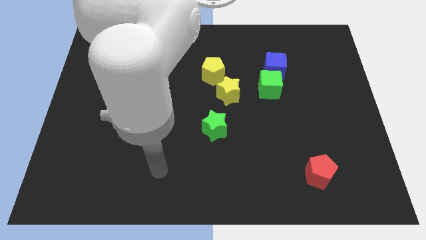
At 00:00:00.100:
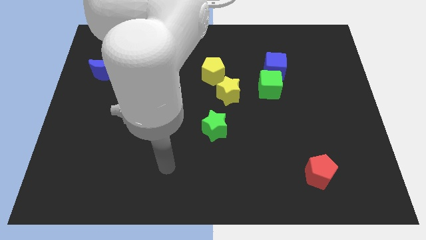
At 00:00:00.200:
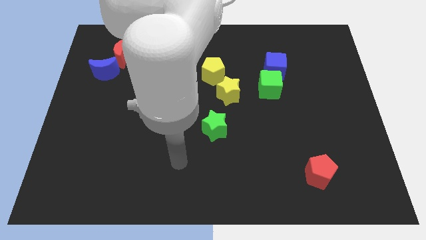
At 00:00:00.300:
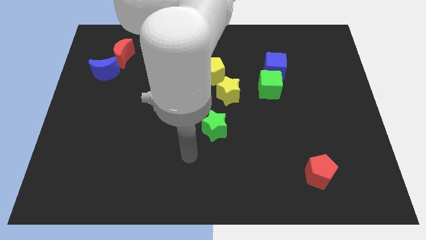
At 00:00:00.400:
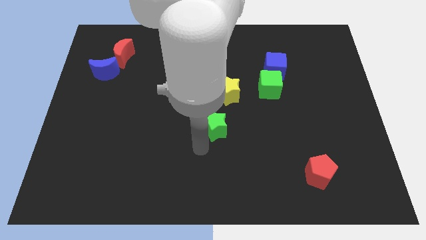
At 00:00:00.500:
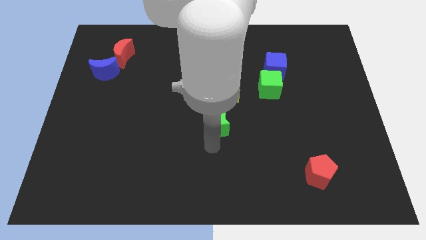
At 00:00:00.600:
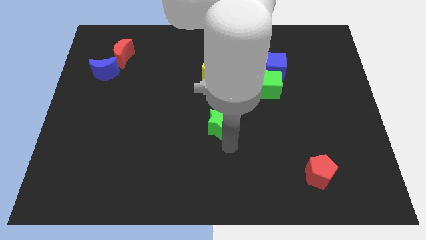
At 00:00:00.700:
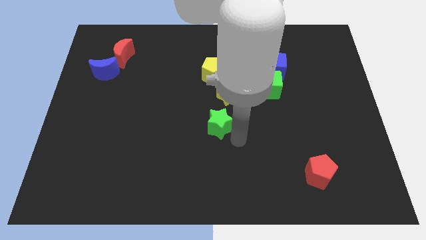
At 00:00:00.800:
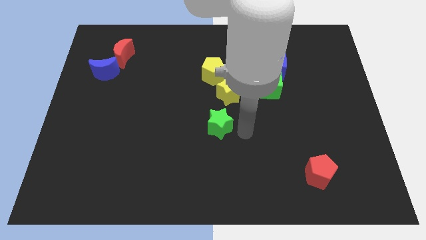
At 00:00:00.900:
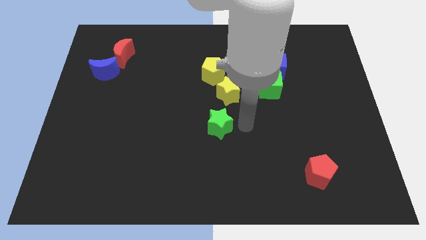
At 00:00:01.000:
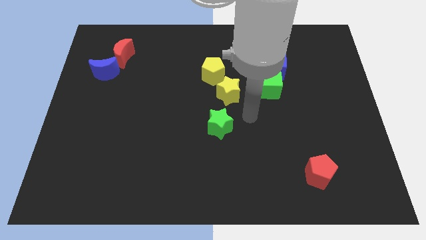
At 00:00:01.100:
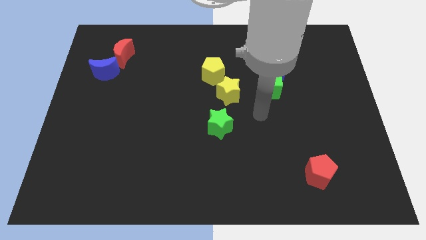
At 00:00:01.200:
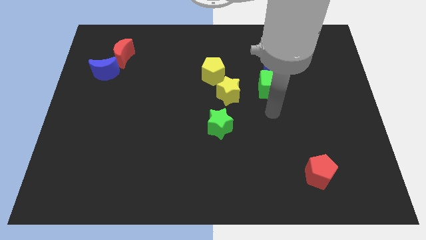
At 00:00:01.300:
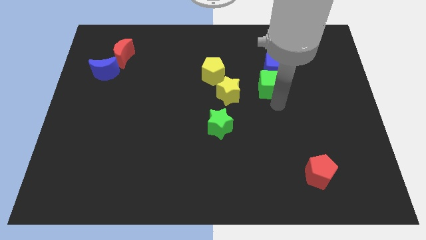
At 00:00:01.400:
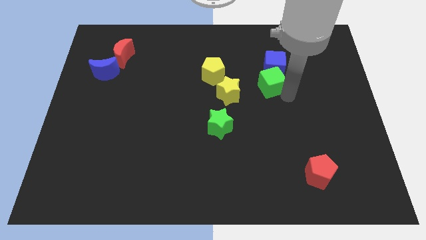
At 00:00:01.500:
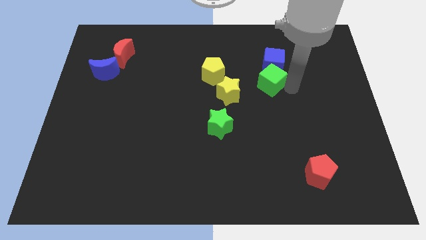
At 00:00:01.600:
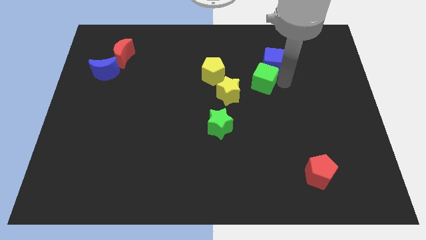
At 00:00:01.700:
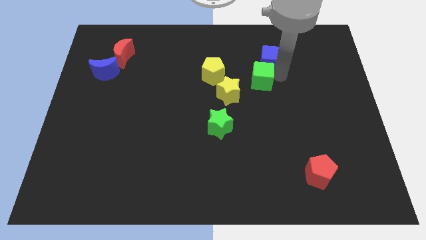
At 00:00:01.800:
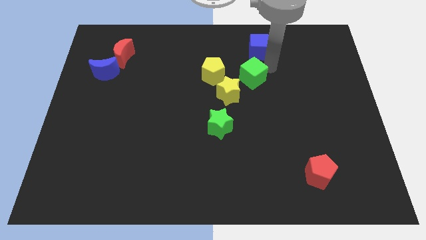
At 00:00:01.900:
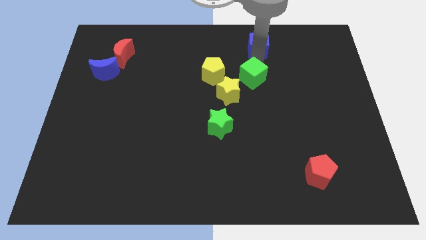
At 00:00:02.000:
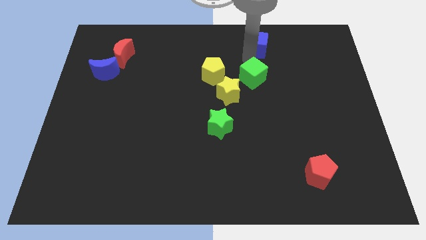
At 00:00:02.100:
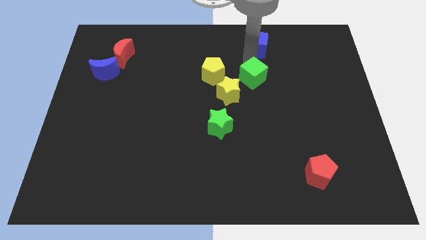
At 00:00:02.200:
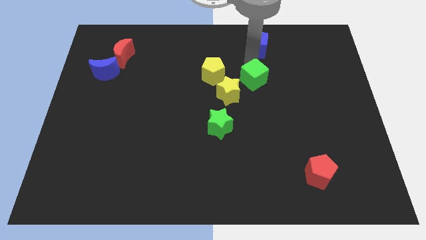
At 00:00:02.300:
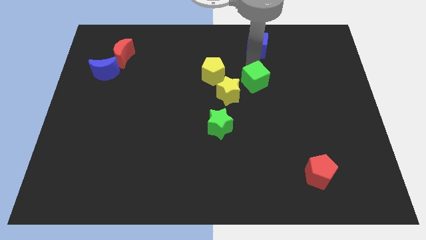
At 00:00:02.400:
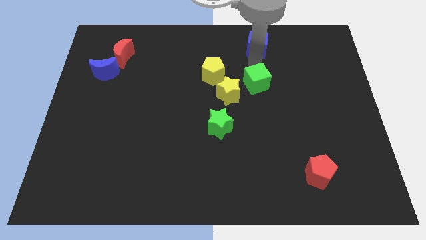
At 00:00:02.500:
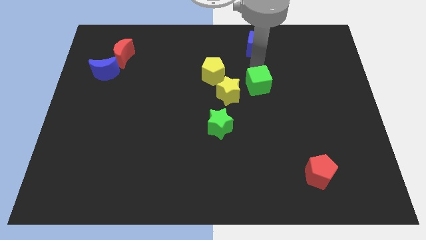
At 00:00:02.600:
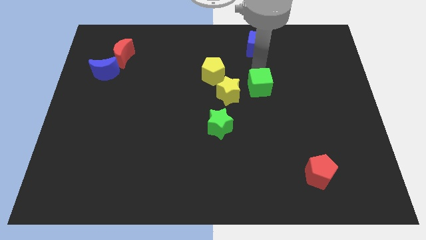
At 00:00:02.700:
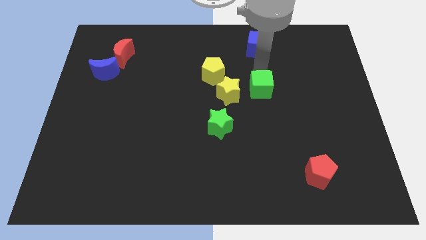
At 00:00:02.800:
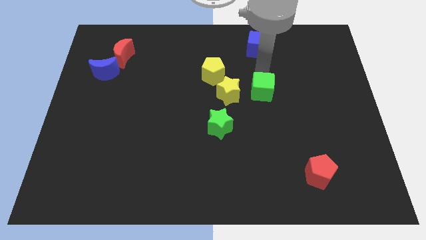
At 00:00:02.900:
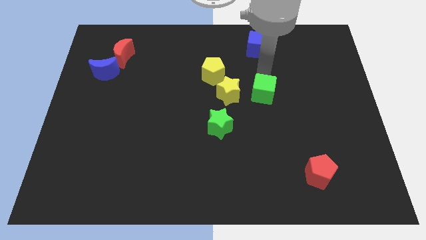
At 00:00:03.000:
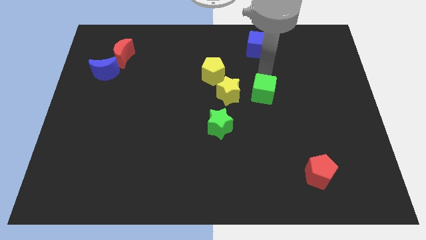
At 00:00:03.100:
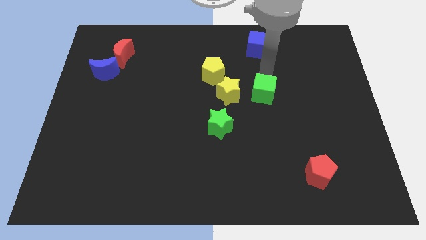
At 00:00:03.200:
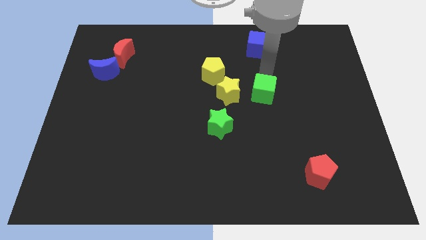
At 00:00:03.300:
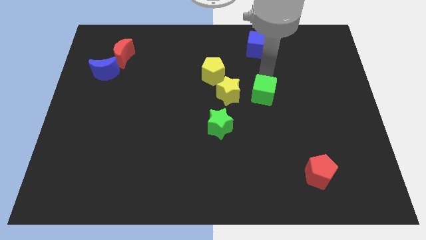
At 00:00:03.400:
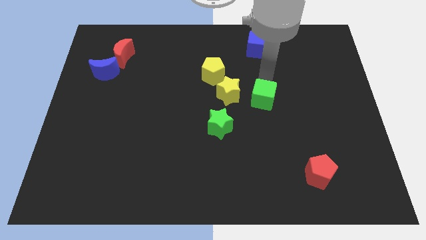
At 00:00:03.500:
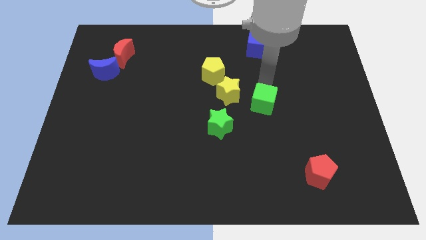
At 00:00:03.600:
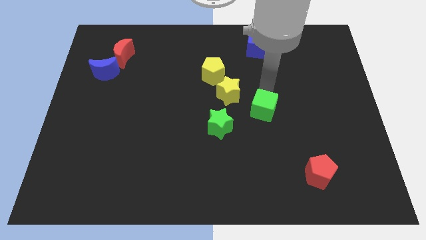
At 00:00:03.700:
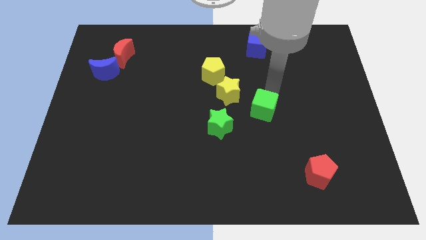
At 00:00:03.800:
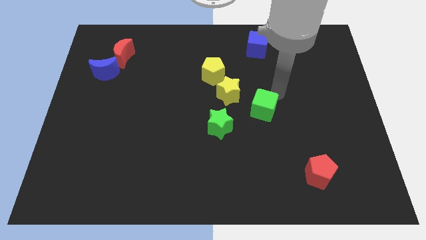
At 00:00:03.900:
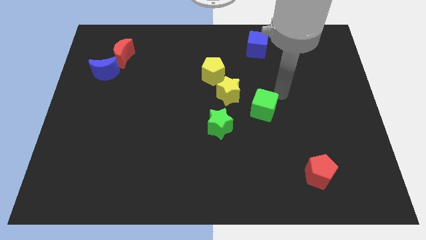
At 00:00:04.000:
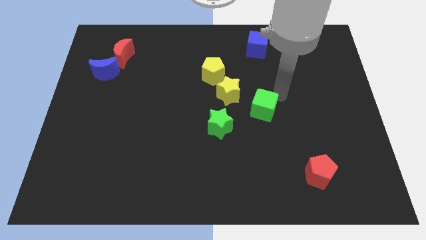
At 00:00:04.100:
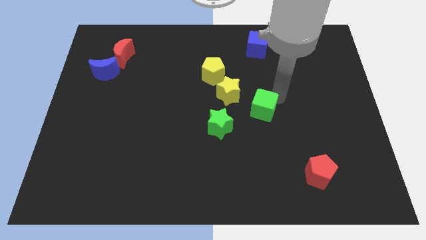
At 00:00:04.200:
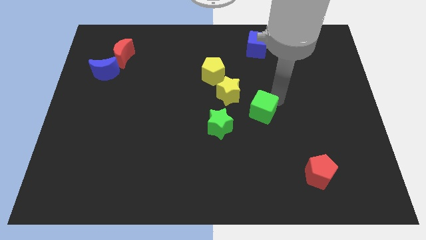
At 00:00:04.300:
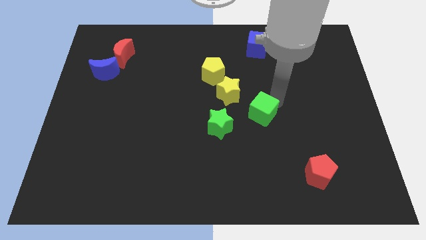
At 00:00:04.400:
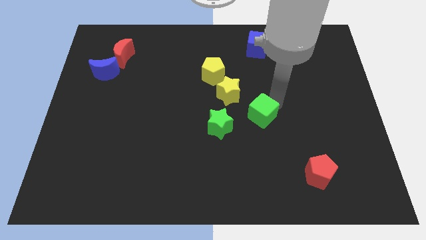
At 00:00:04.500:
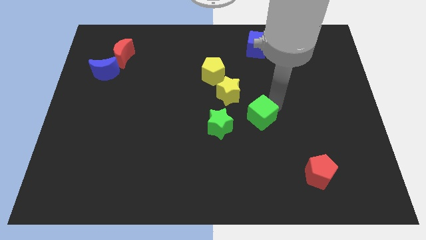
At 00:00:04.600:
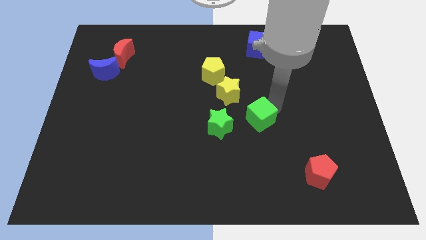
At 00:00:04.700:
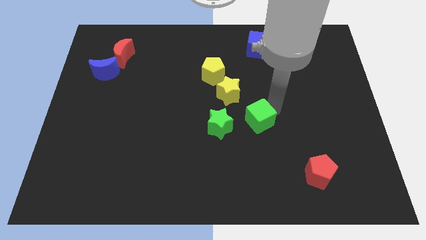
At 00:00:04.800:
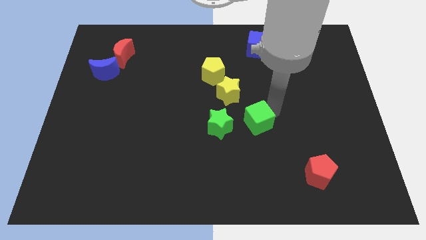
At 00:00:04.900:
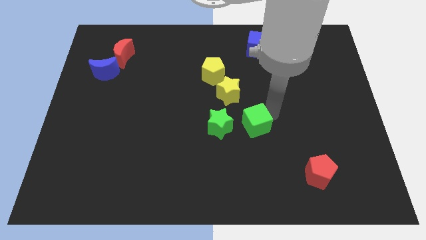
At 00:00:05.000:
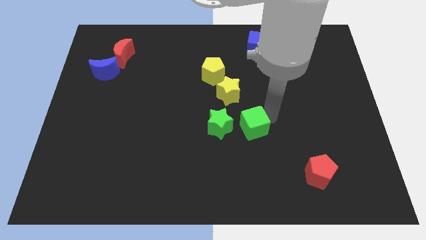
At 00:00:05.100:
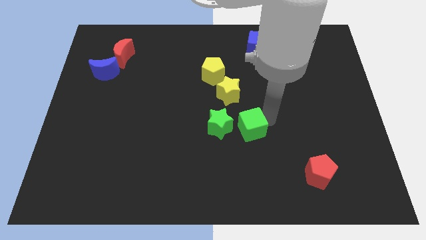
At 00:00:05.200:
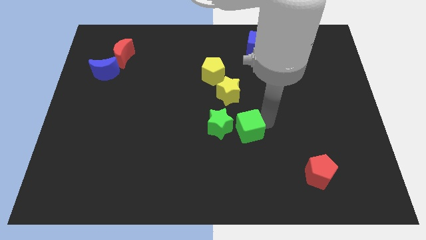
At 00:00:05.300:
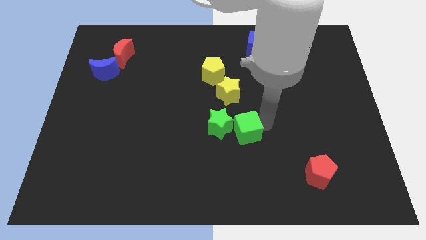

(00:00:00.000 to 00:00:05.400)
push the green cube to the green star

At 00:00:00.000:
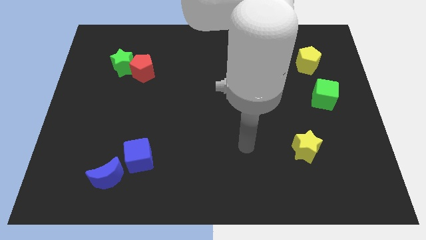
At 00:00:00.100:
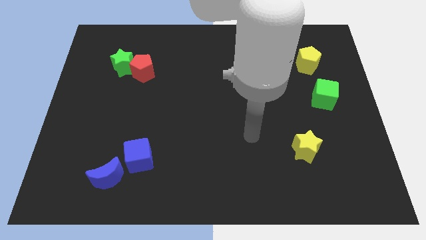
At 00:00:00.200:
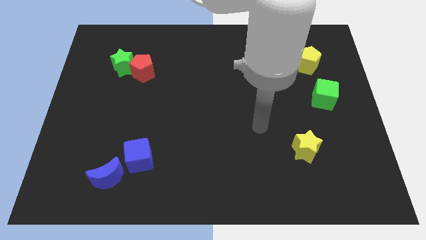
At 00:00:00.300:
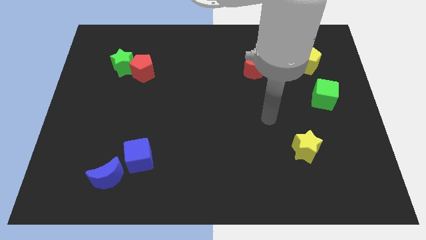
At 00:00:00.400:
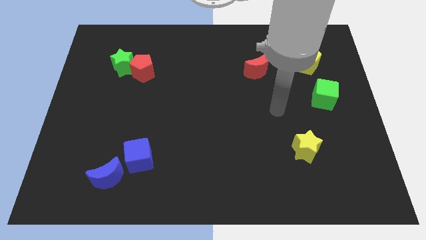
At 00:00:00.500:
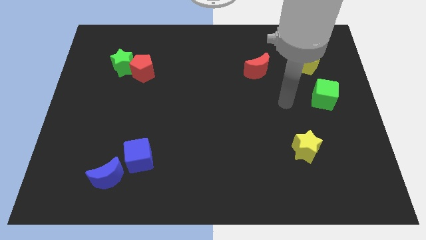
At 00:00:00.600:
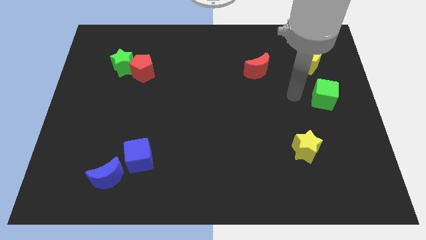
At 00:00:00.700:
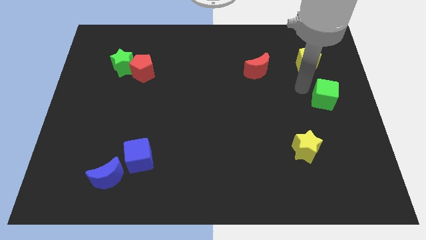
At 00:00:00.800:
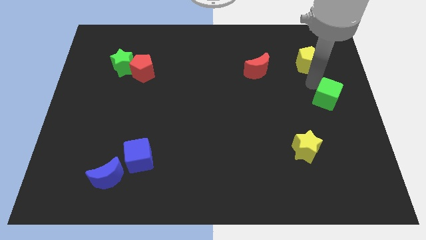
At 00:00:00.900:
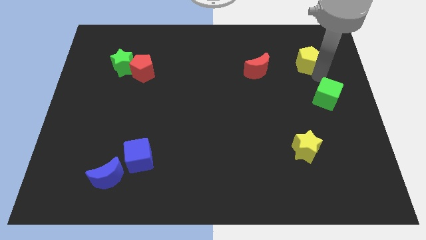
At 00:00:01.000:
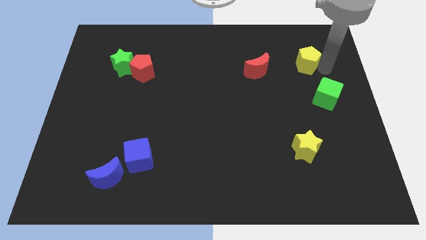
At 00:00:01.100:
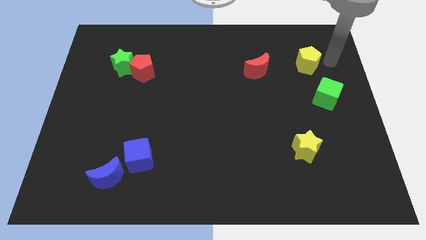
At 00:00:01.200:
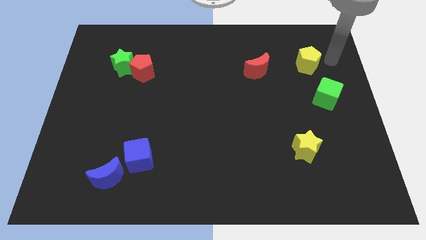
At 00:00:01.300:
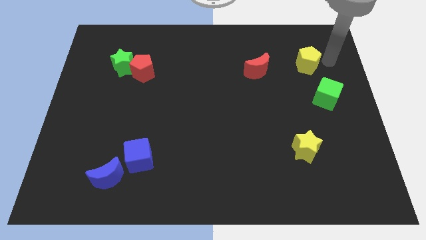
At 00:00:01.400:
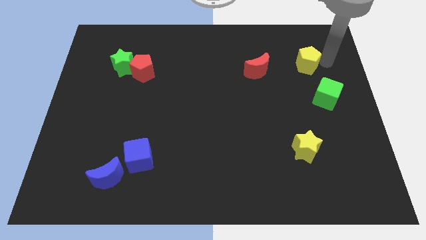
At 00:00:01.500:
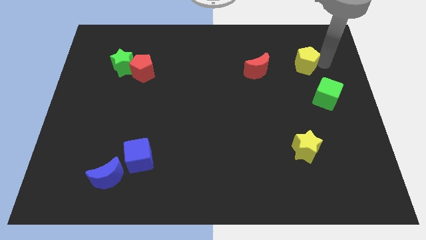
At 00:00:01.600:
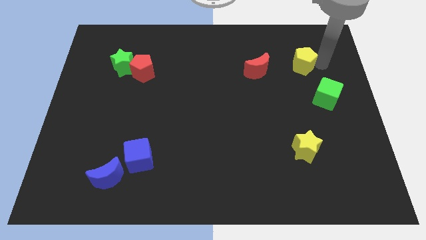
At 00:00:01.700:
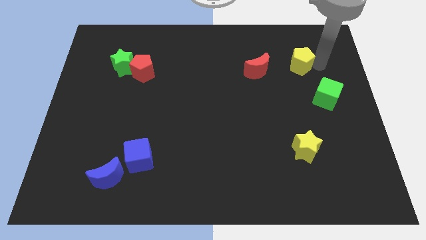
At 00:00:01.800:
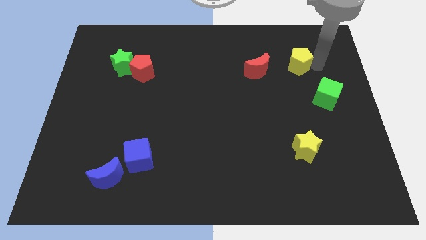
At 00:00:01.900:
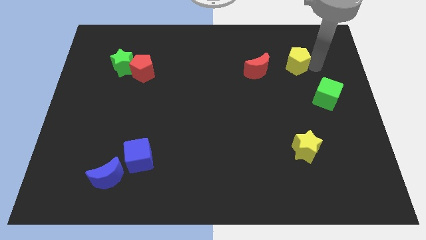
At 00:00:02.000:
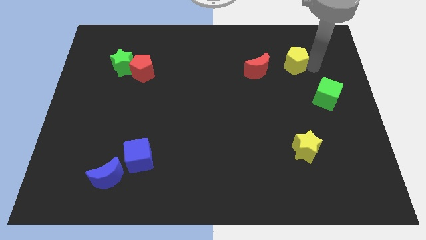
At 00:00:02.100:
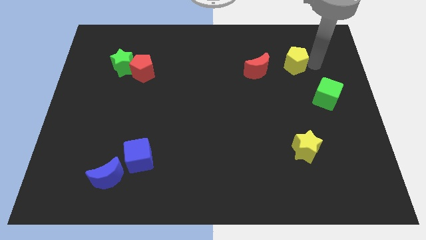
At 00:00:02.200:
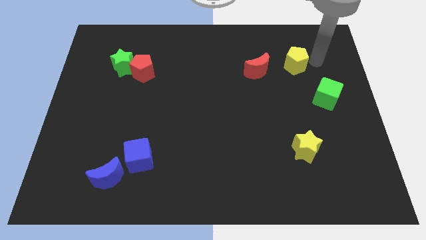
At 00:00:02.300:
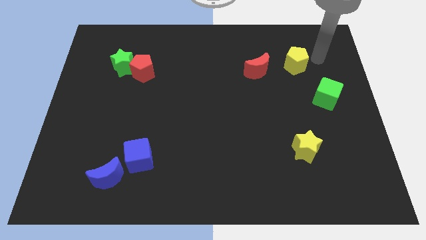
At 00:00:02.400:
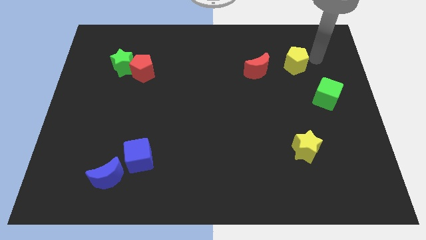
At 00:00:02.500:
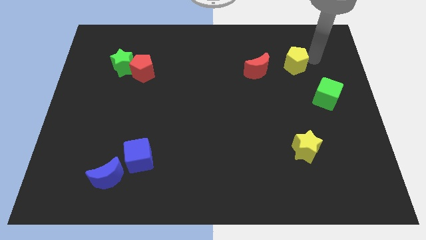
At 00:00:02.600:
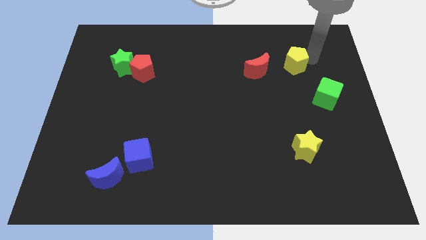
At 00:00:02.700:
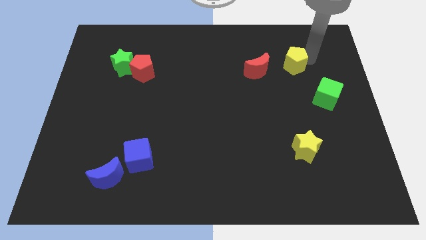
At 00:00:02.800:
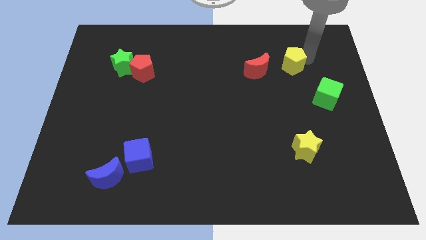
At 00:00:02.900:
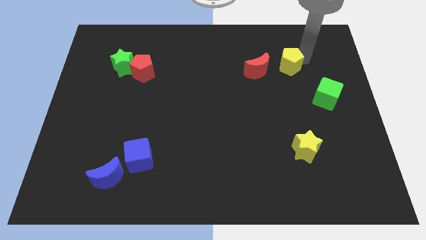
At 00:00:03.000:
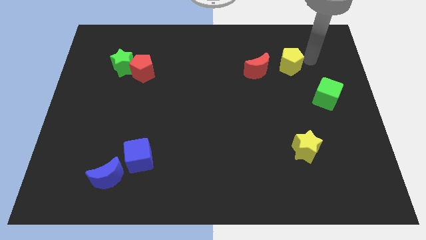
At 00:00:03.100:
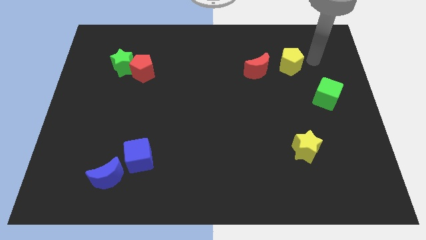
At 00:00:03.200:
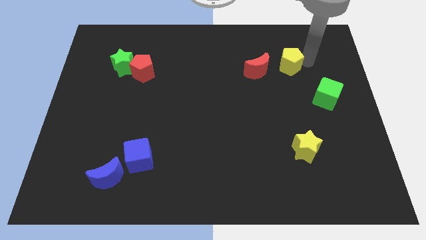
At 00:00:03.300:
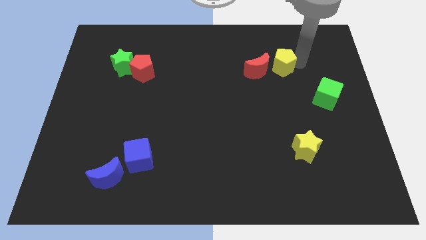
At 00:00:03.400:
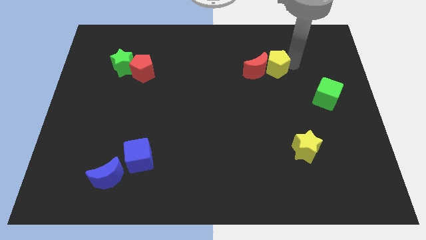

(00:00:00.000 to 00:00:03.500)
move the yellow pentagon to the red moon
